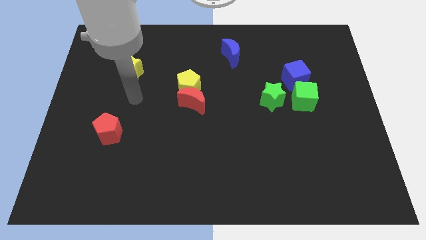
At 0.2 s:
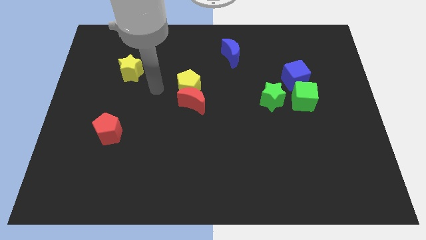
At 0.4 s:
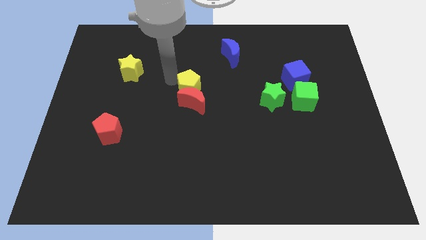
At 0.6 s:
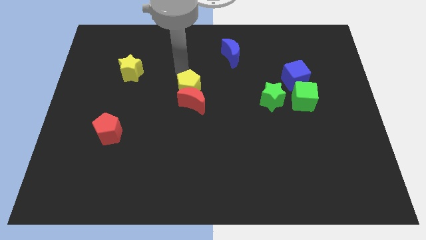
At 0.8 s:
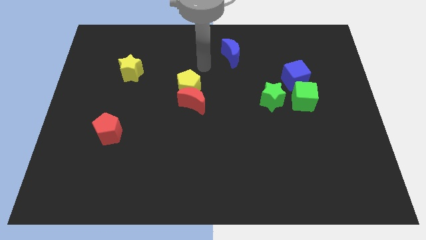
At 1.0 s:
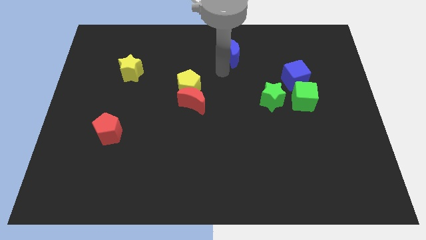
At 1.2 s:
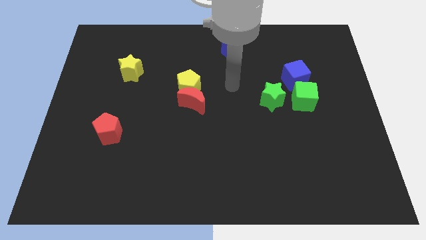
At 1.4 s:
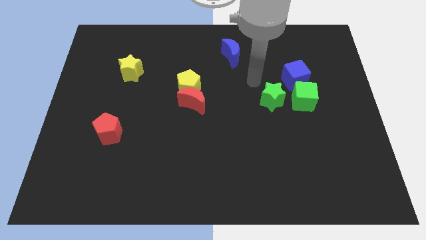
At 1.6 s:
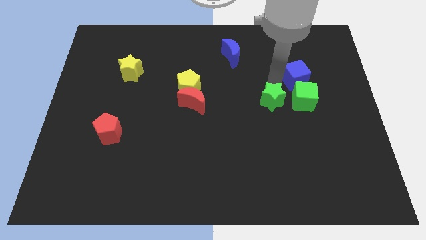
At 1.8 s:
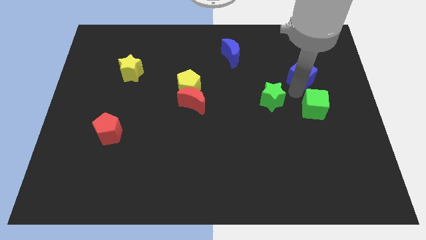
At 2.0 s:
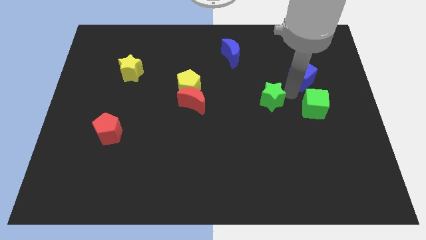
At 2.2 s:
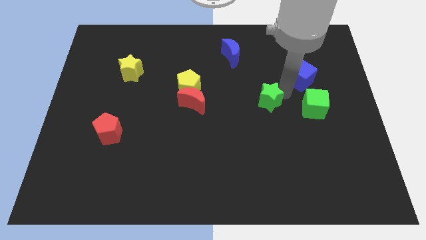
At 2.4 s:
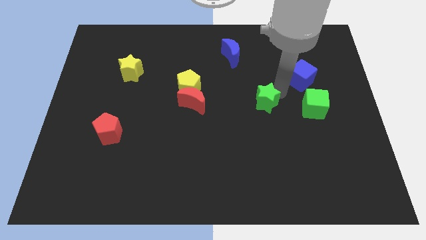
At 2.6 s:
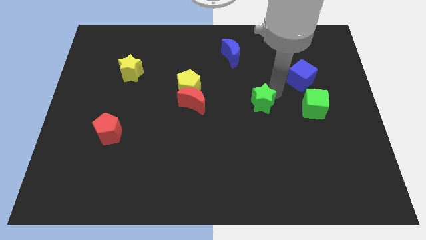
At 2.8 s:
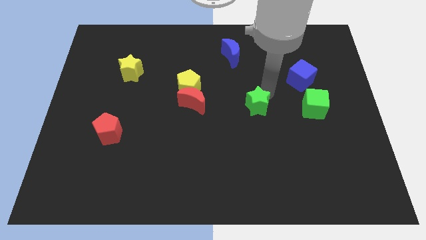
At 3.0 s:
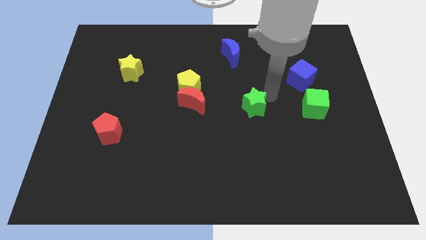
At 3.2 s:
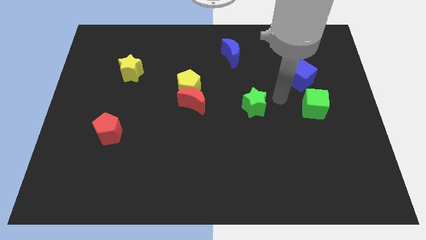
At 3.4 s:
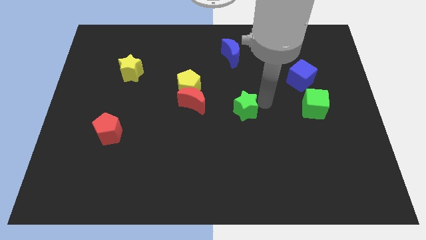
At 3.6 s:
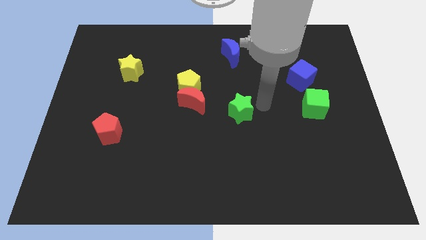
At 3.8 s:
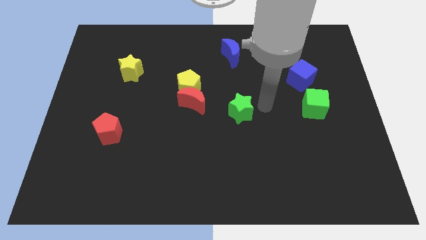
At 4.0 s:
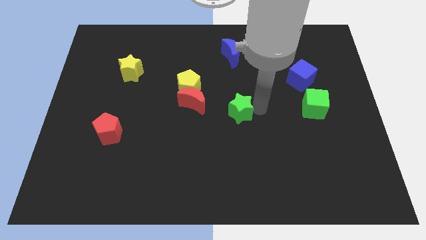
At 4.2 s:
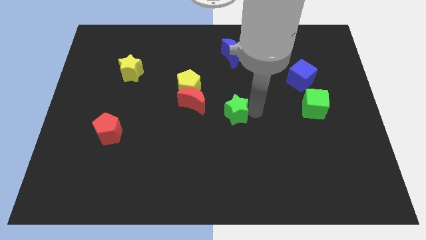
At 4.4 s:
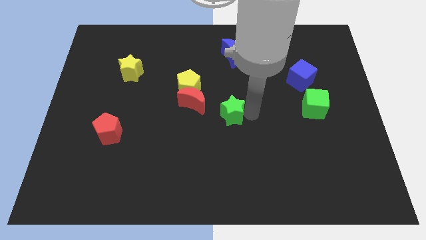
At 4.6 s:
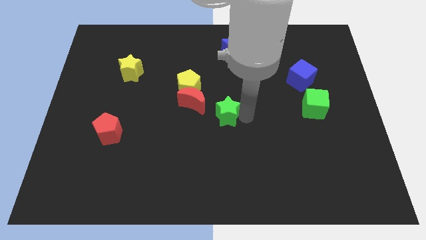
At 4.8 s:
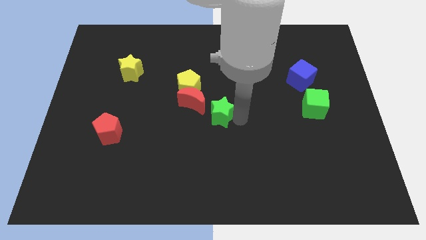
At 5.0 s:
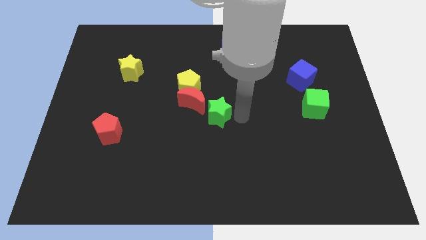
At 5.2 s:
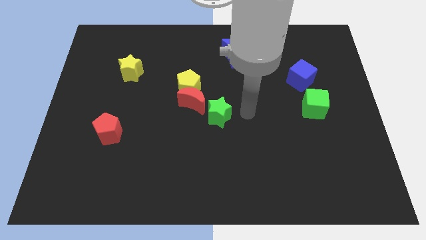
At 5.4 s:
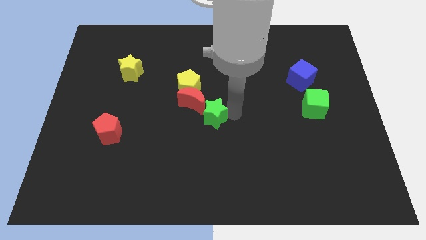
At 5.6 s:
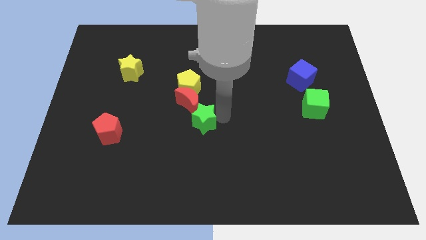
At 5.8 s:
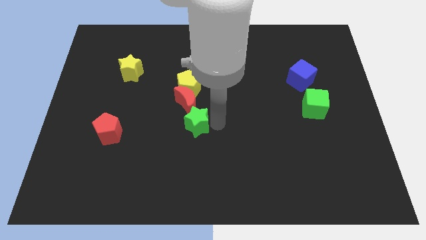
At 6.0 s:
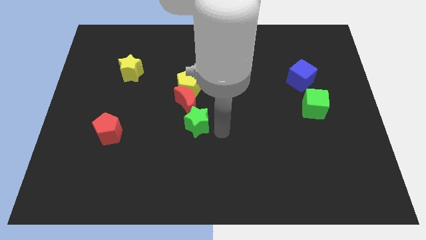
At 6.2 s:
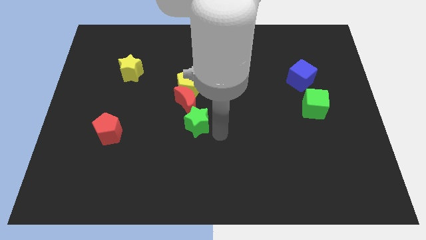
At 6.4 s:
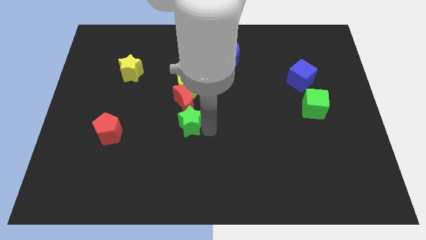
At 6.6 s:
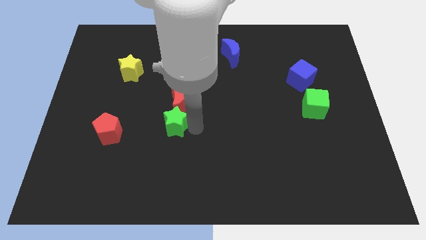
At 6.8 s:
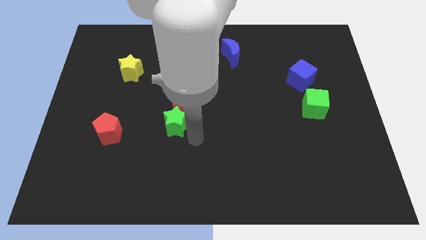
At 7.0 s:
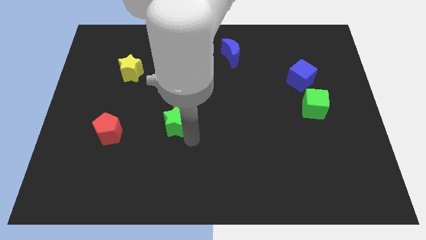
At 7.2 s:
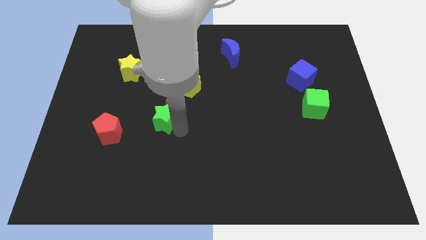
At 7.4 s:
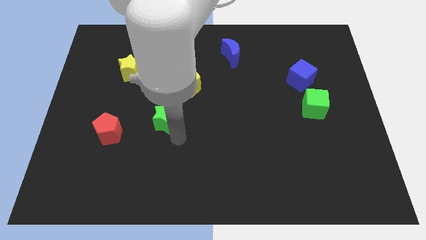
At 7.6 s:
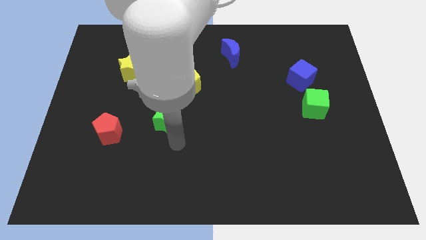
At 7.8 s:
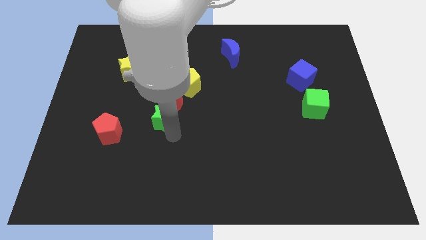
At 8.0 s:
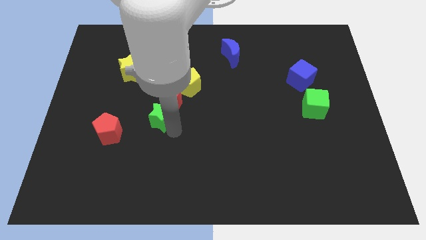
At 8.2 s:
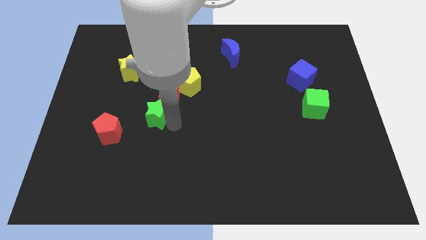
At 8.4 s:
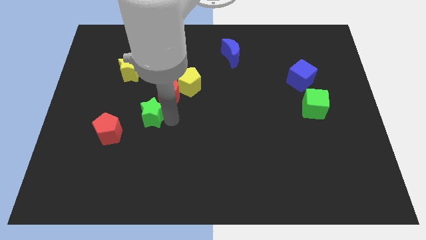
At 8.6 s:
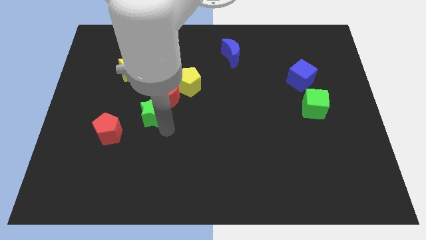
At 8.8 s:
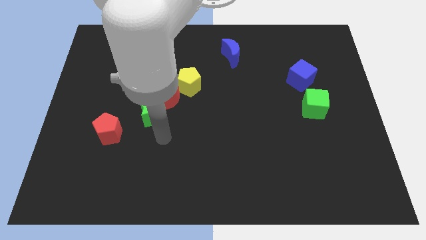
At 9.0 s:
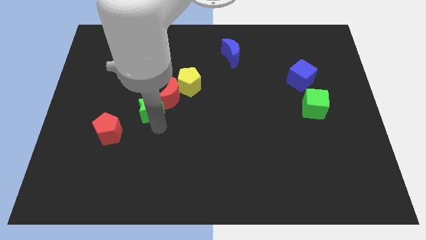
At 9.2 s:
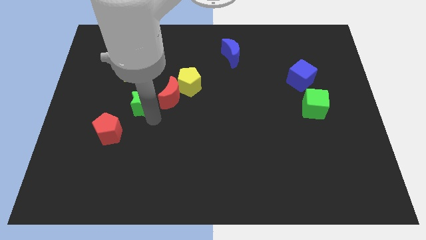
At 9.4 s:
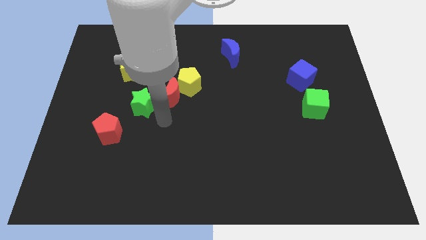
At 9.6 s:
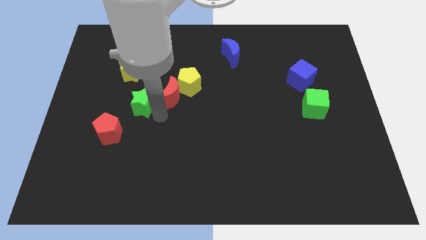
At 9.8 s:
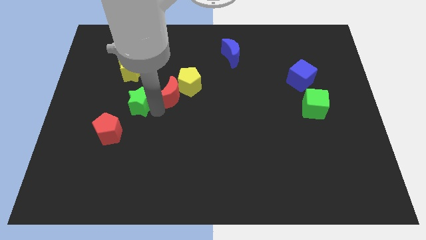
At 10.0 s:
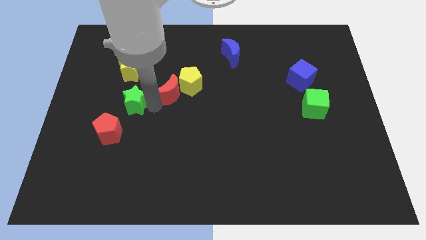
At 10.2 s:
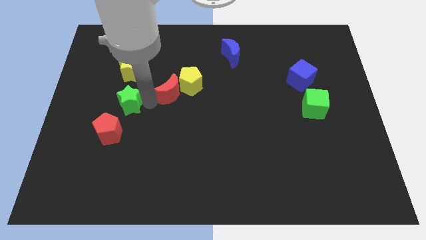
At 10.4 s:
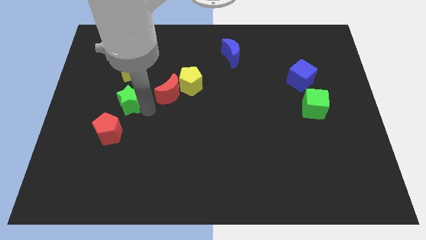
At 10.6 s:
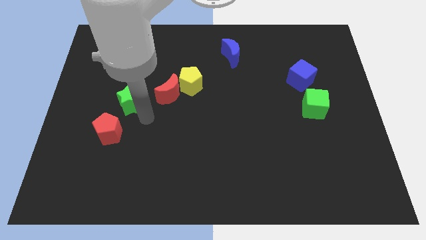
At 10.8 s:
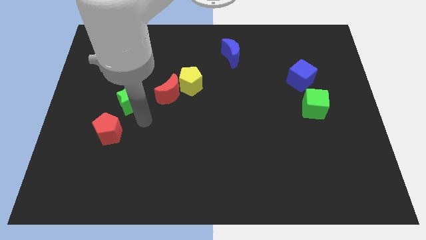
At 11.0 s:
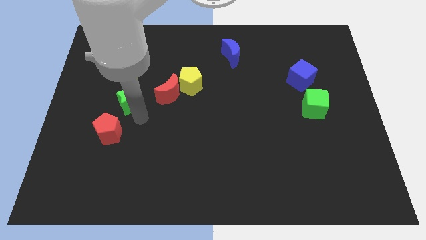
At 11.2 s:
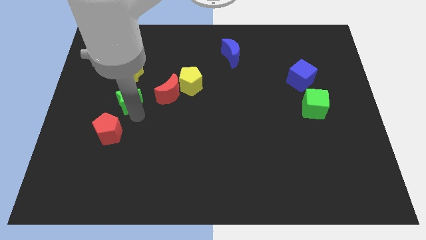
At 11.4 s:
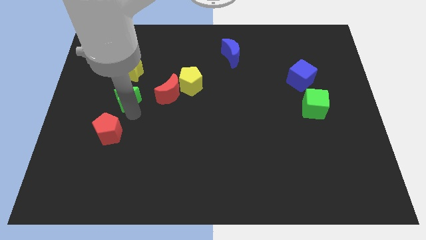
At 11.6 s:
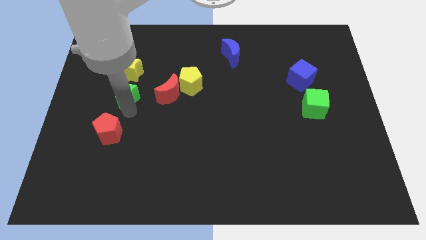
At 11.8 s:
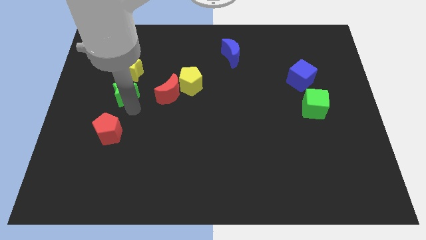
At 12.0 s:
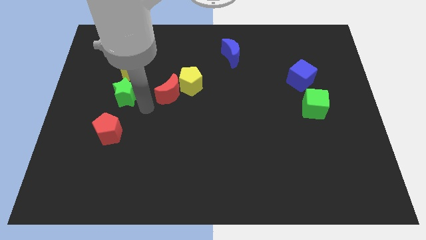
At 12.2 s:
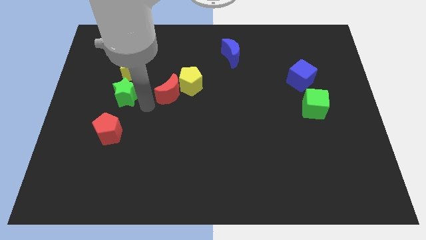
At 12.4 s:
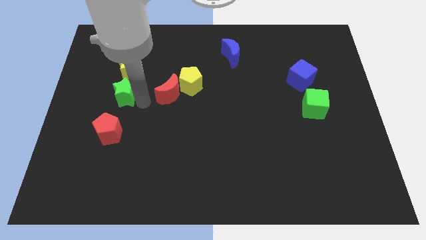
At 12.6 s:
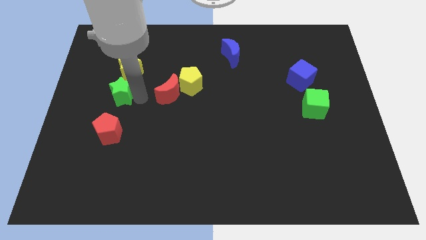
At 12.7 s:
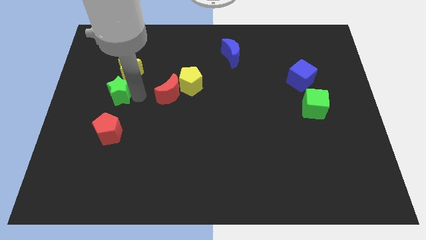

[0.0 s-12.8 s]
slide the green star diagonally down and to the left of the yellow star

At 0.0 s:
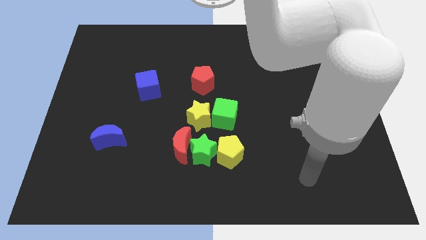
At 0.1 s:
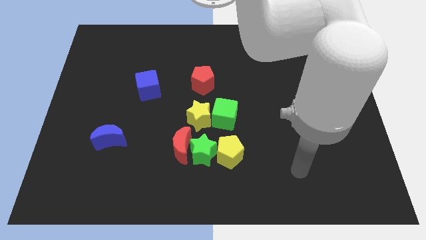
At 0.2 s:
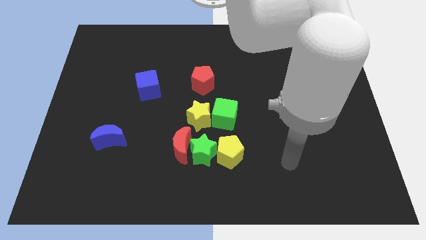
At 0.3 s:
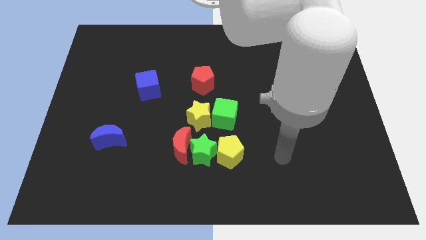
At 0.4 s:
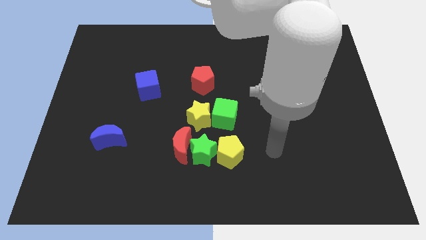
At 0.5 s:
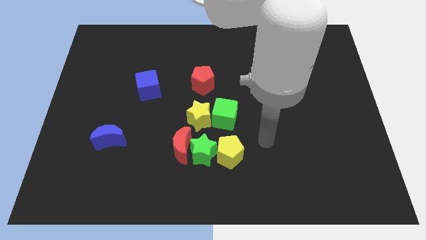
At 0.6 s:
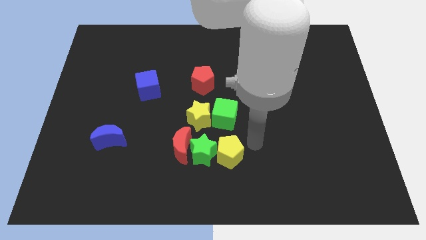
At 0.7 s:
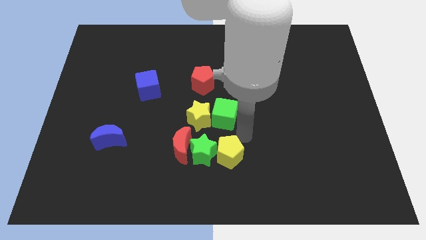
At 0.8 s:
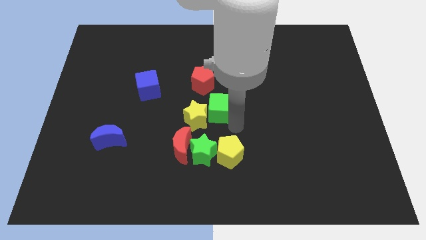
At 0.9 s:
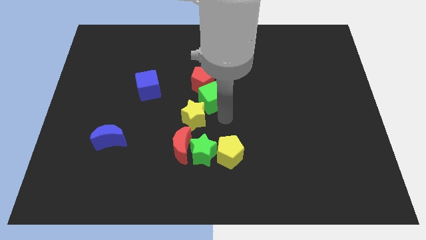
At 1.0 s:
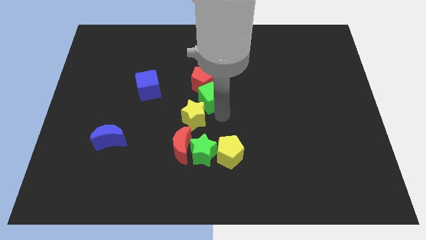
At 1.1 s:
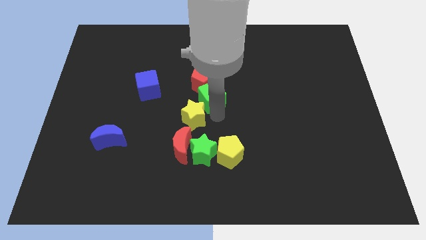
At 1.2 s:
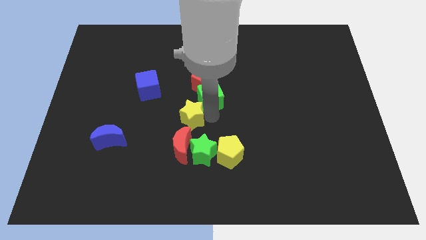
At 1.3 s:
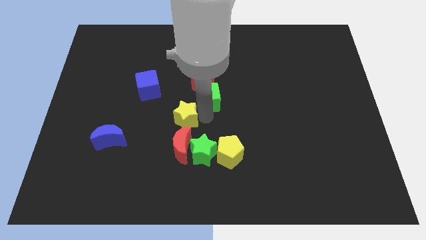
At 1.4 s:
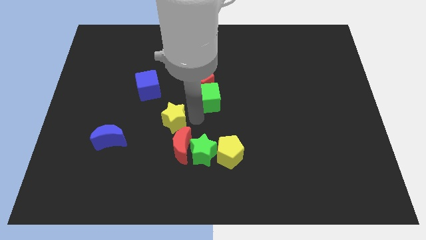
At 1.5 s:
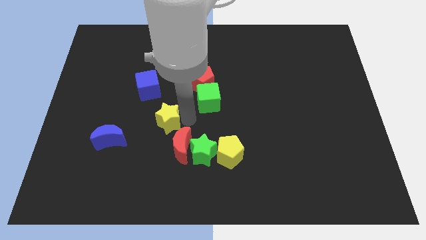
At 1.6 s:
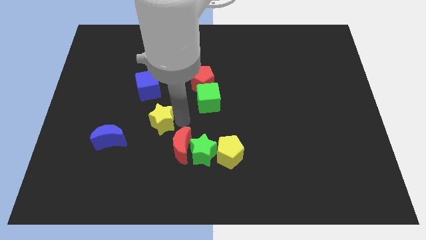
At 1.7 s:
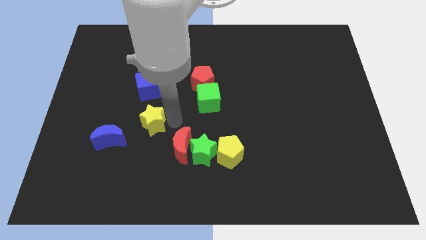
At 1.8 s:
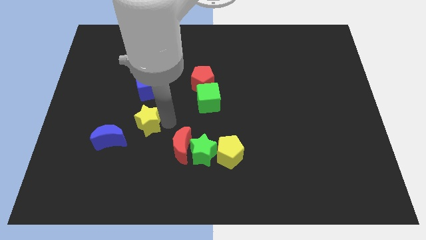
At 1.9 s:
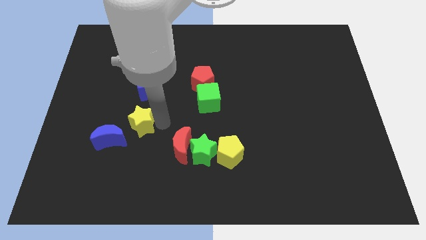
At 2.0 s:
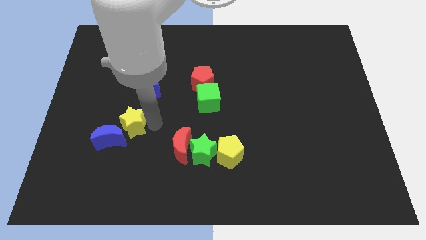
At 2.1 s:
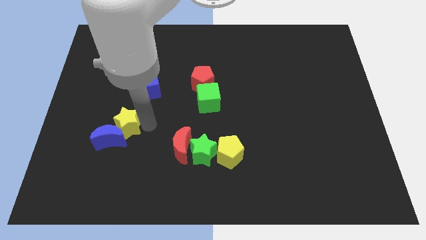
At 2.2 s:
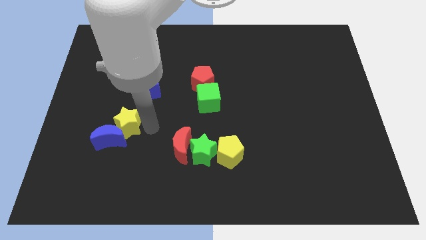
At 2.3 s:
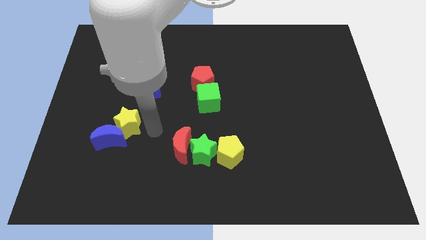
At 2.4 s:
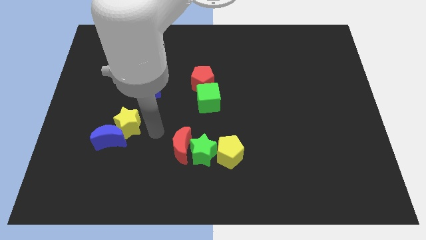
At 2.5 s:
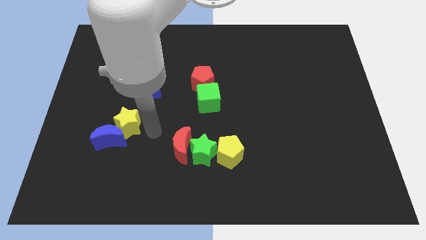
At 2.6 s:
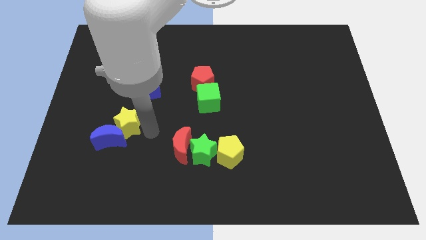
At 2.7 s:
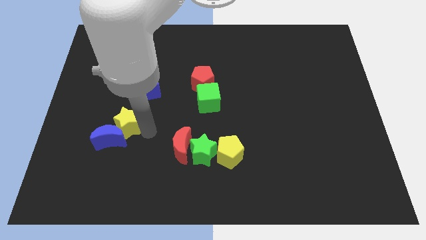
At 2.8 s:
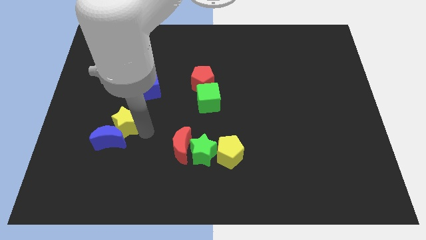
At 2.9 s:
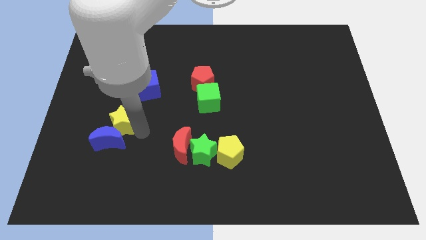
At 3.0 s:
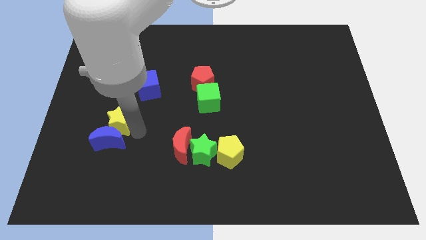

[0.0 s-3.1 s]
put the yellow star to the top left side of the blue moon
